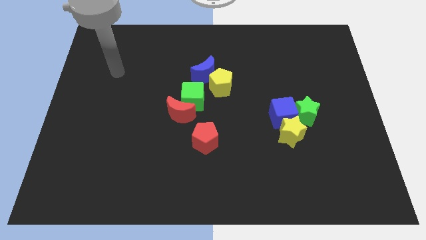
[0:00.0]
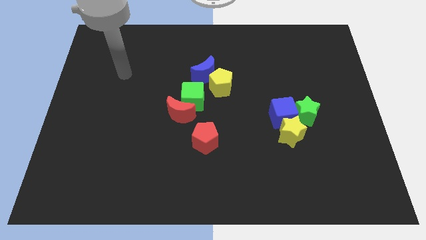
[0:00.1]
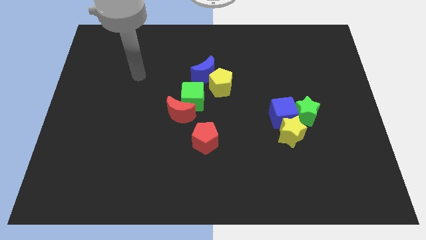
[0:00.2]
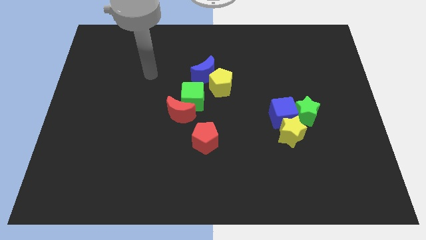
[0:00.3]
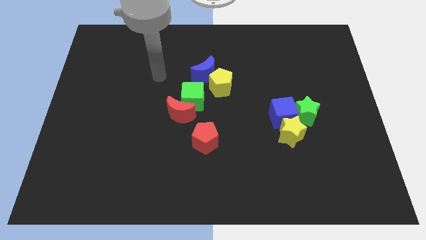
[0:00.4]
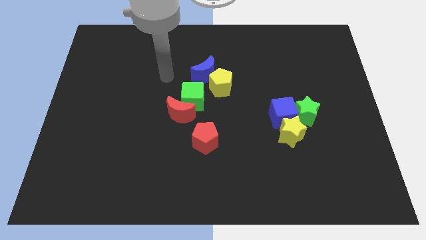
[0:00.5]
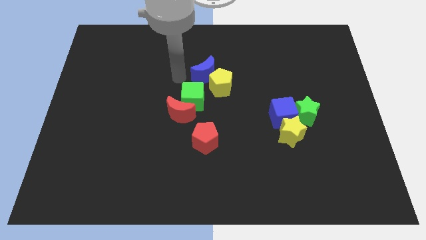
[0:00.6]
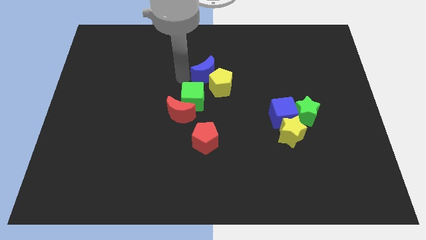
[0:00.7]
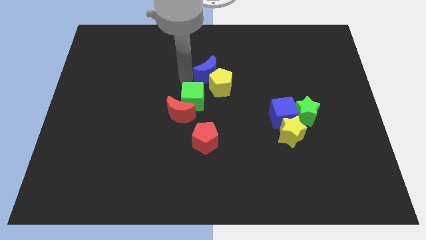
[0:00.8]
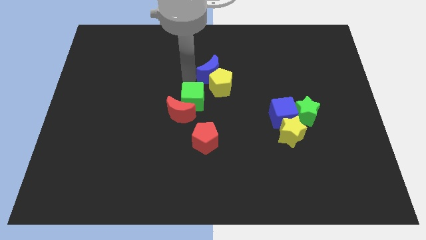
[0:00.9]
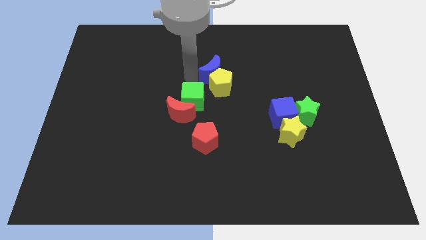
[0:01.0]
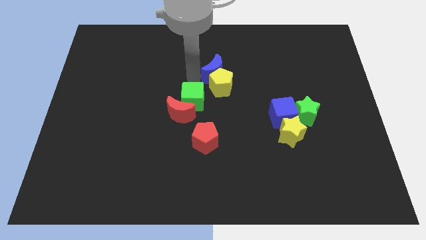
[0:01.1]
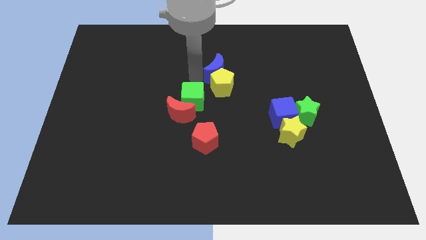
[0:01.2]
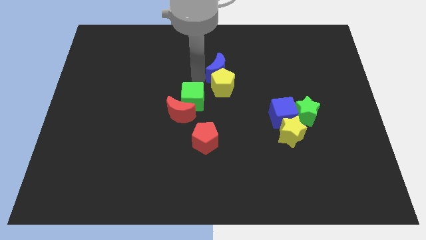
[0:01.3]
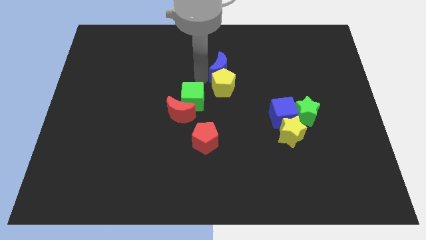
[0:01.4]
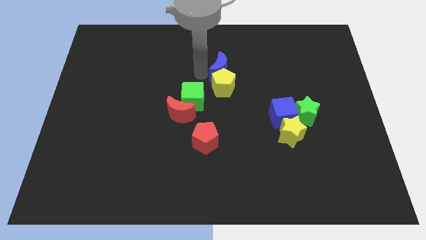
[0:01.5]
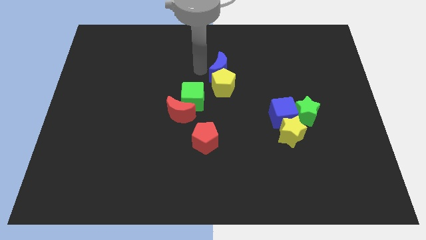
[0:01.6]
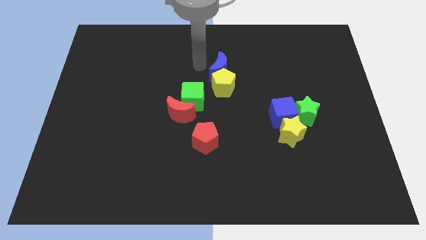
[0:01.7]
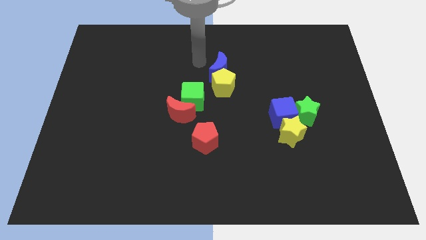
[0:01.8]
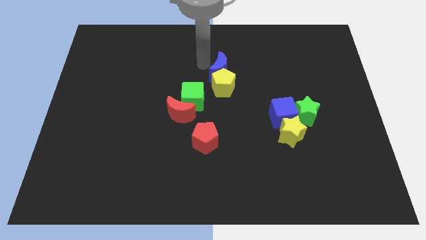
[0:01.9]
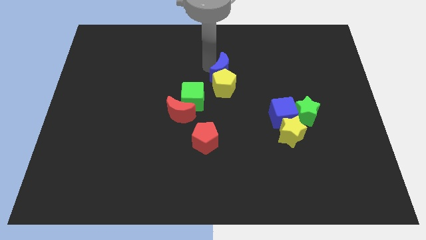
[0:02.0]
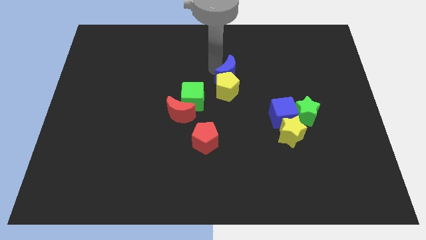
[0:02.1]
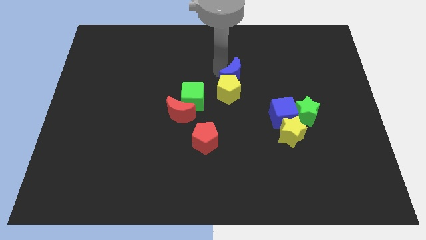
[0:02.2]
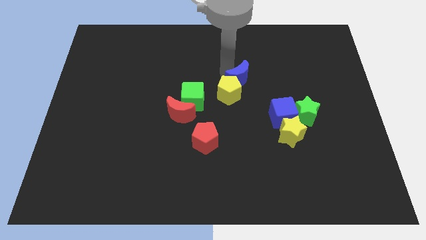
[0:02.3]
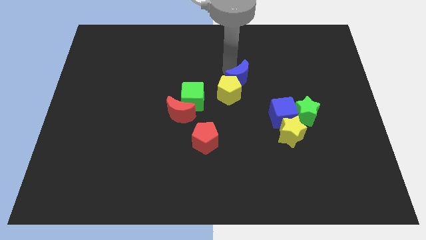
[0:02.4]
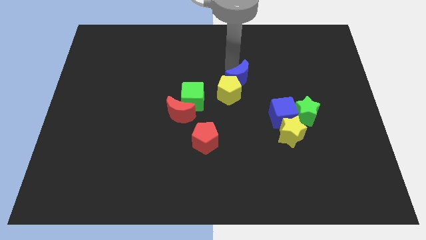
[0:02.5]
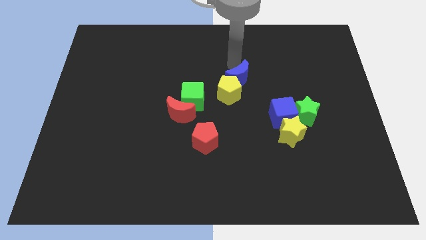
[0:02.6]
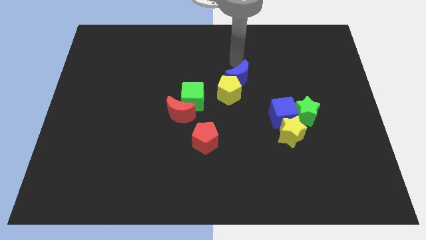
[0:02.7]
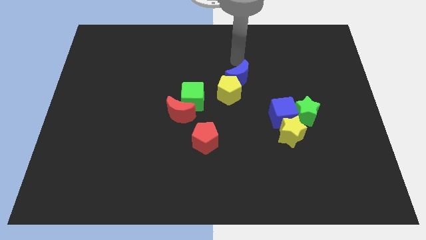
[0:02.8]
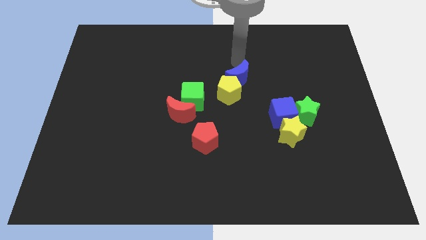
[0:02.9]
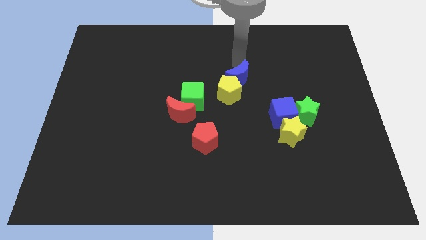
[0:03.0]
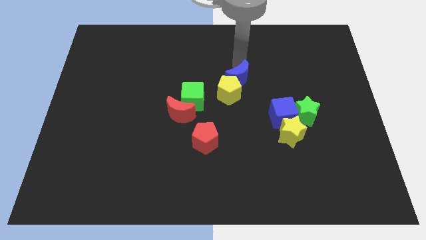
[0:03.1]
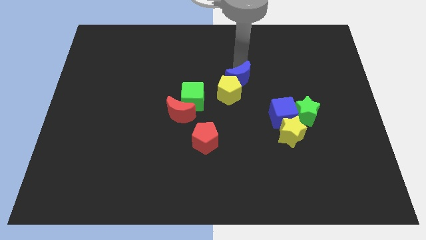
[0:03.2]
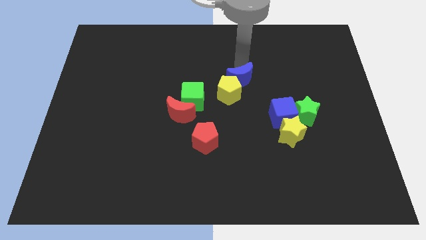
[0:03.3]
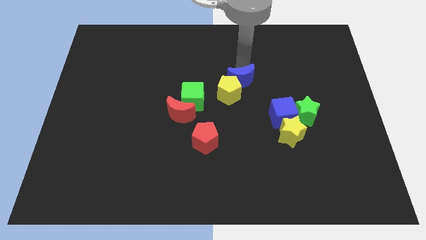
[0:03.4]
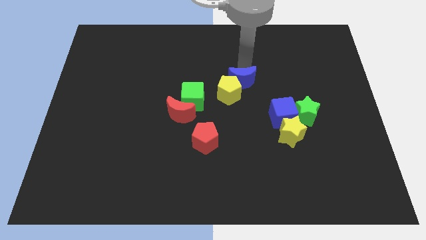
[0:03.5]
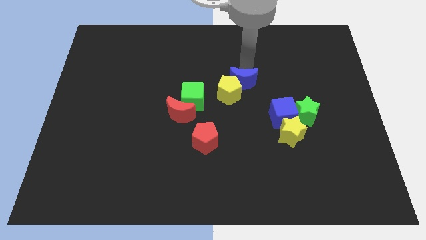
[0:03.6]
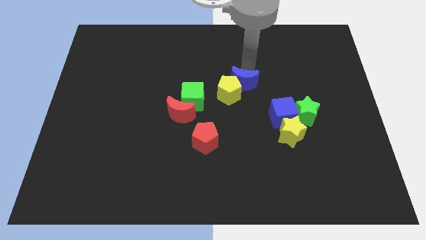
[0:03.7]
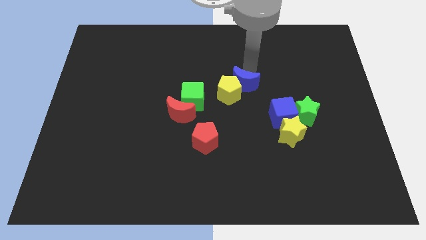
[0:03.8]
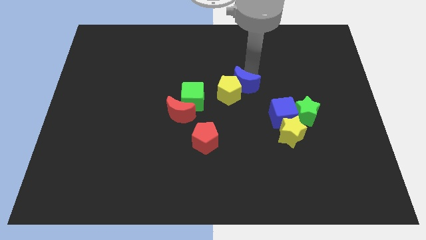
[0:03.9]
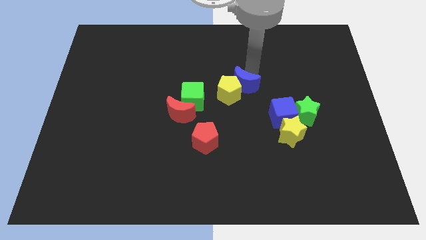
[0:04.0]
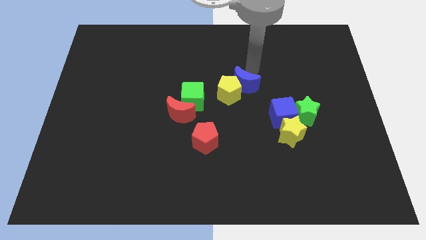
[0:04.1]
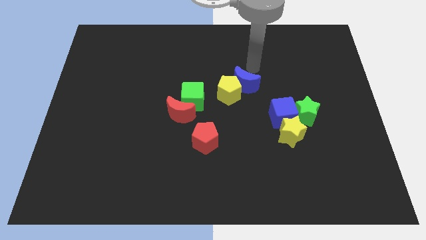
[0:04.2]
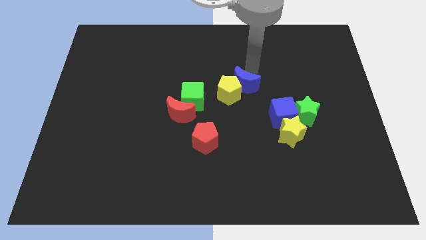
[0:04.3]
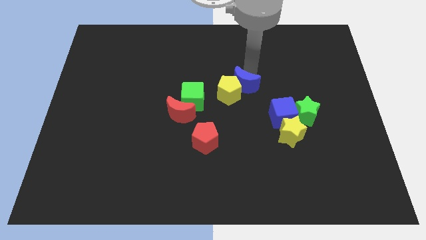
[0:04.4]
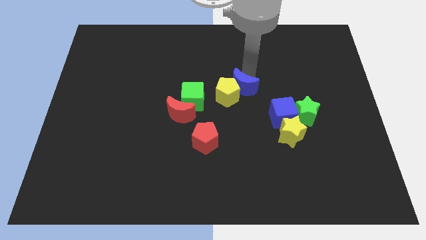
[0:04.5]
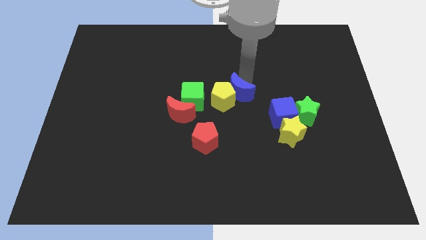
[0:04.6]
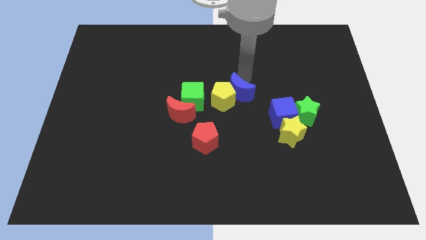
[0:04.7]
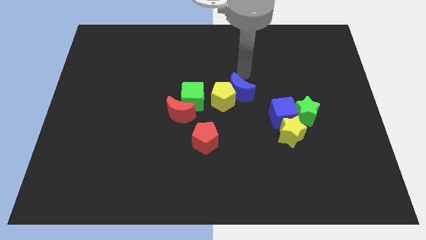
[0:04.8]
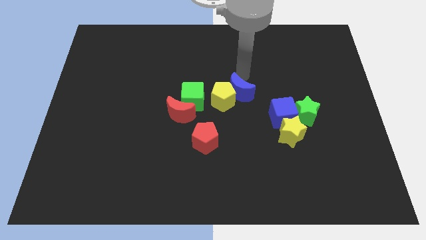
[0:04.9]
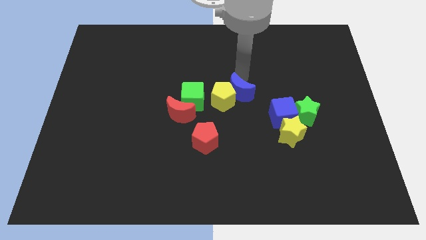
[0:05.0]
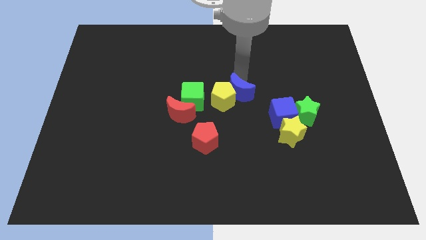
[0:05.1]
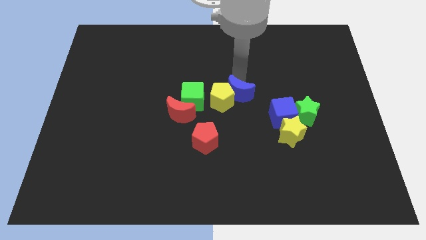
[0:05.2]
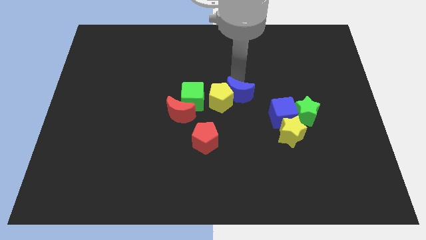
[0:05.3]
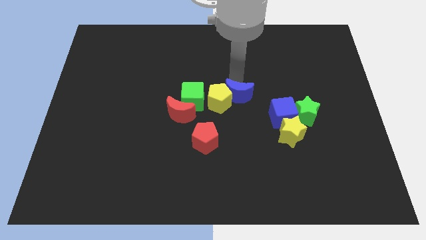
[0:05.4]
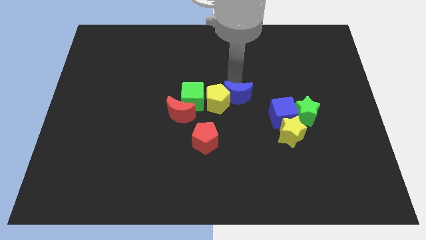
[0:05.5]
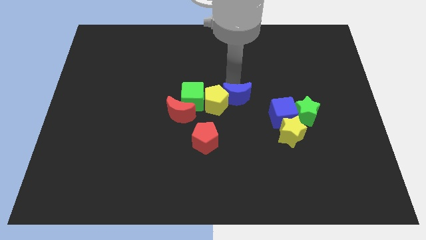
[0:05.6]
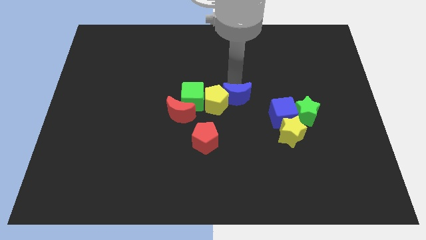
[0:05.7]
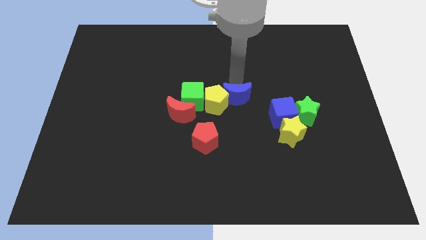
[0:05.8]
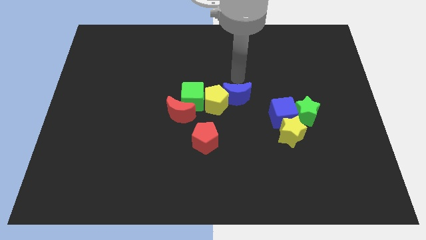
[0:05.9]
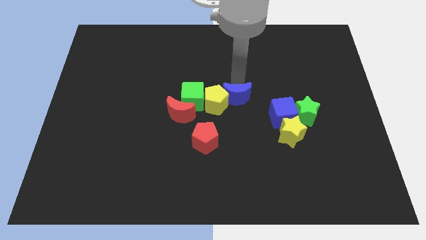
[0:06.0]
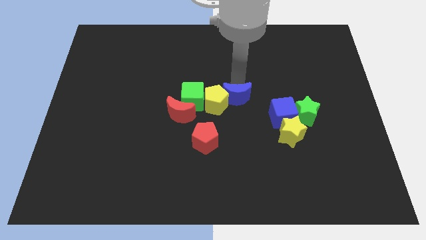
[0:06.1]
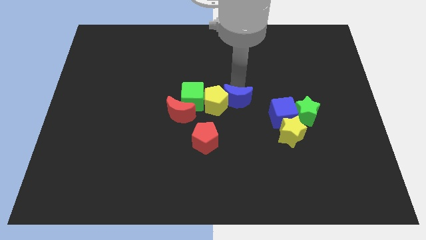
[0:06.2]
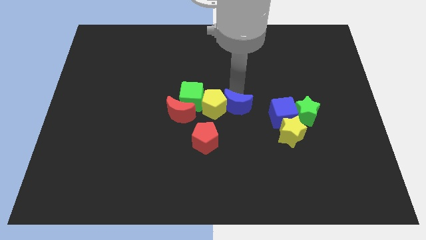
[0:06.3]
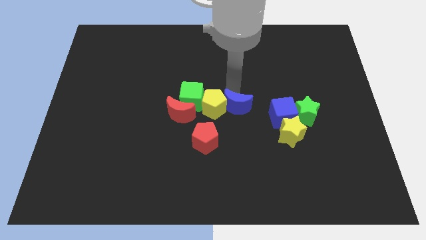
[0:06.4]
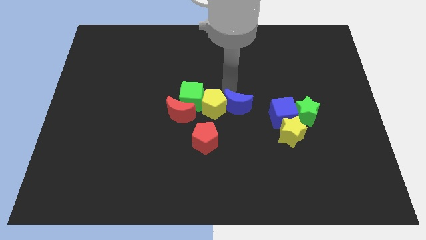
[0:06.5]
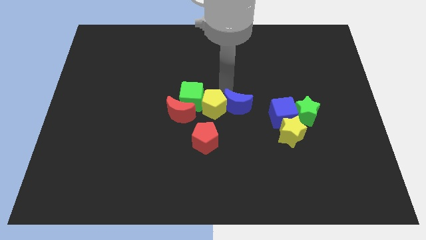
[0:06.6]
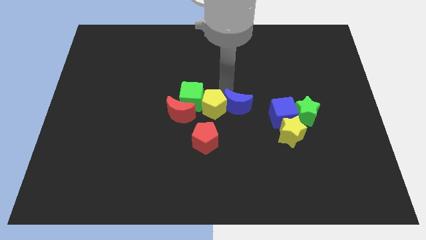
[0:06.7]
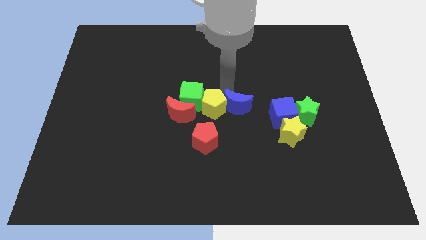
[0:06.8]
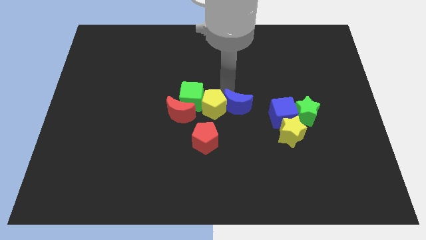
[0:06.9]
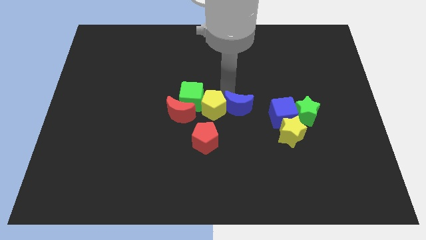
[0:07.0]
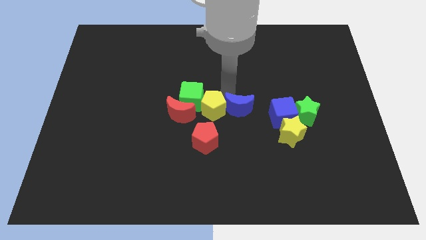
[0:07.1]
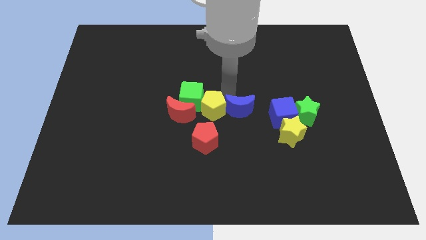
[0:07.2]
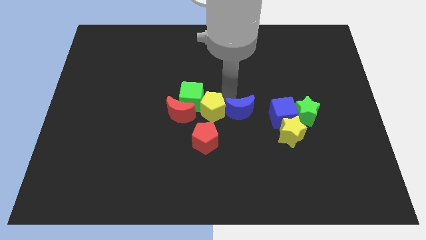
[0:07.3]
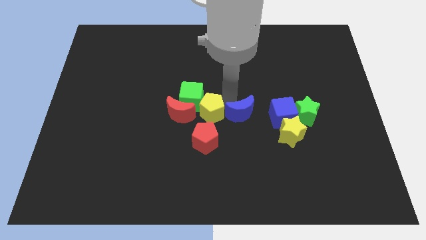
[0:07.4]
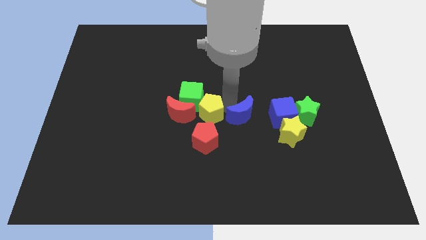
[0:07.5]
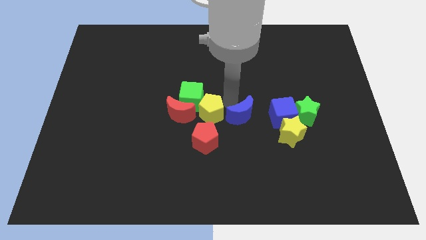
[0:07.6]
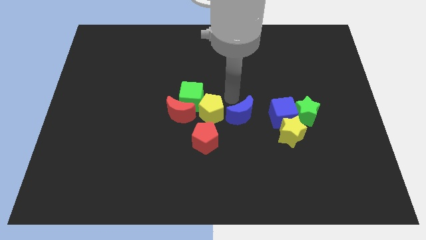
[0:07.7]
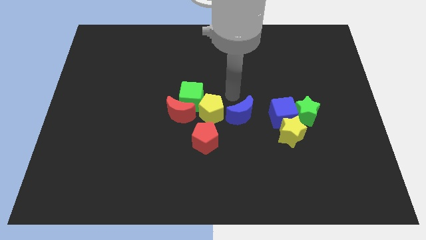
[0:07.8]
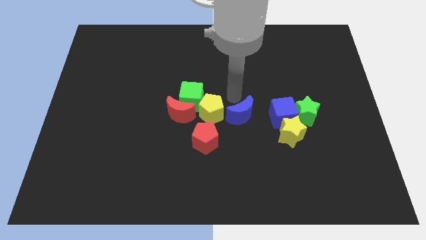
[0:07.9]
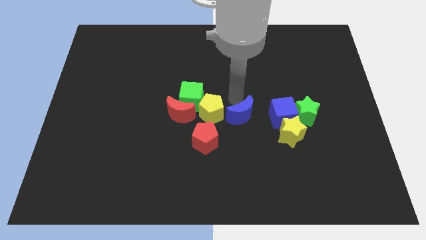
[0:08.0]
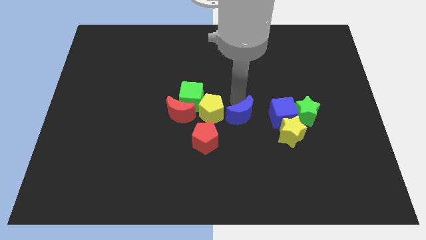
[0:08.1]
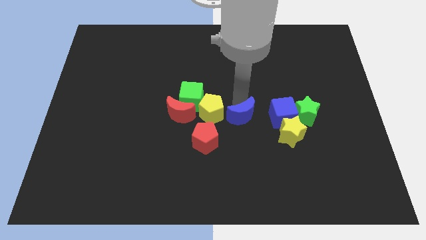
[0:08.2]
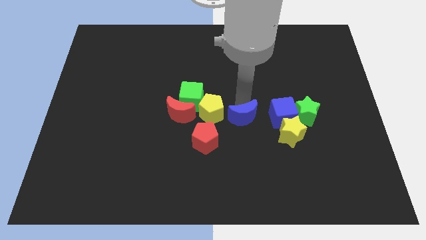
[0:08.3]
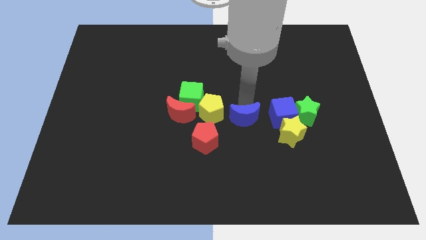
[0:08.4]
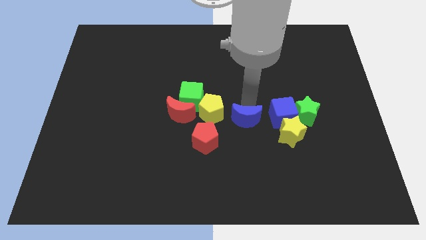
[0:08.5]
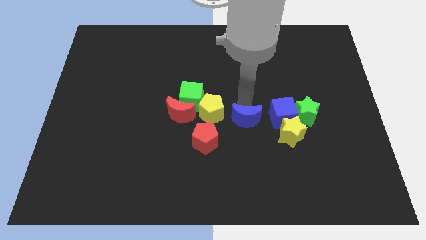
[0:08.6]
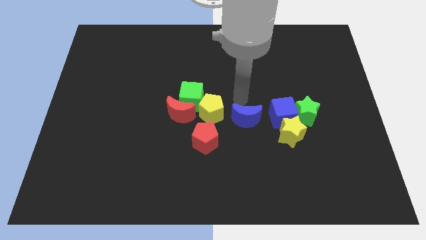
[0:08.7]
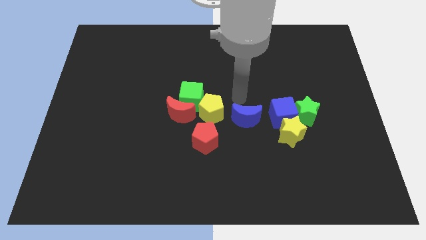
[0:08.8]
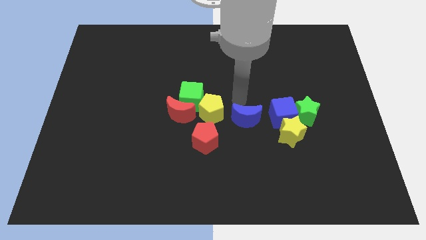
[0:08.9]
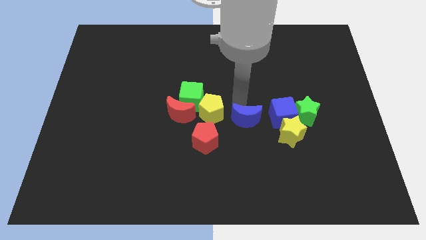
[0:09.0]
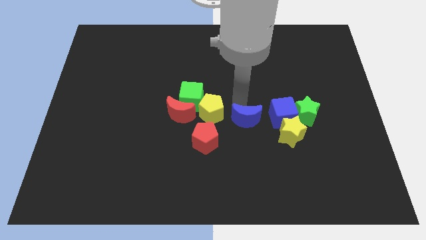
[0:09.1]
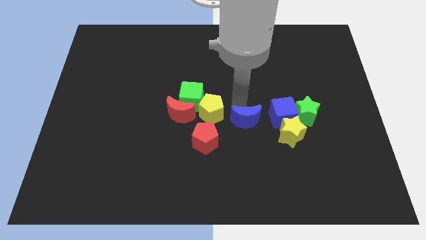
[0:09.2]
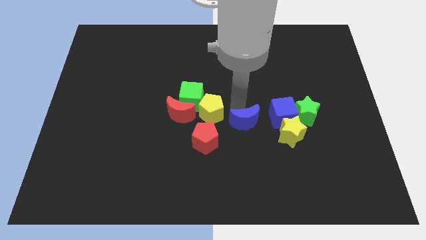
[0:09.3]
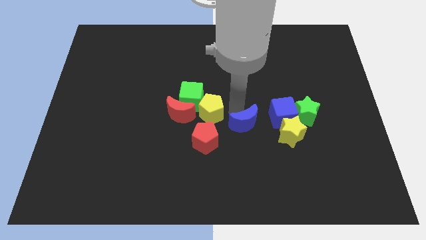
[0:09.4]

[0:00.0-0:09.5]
put the blue moon right of the red pentagon
